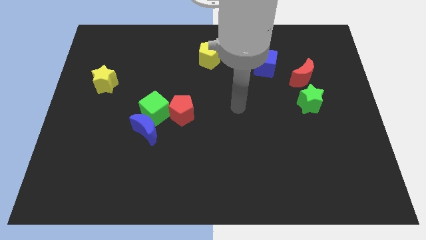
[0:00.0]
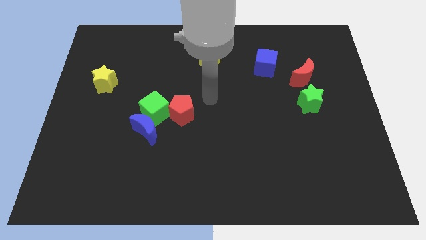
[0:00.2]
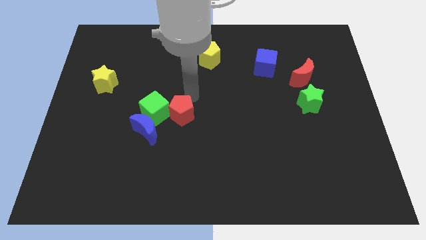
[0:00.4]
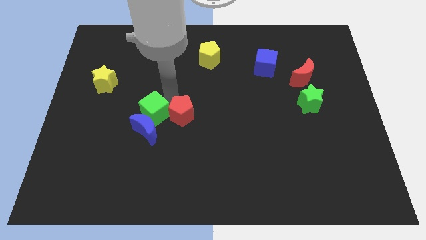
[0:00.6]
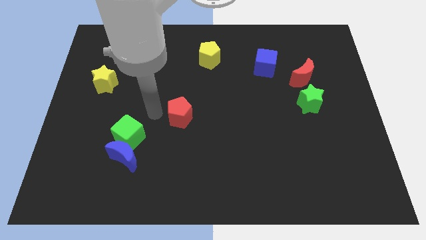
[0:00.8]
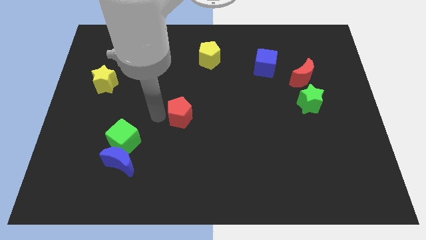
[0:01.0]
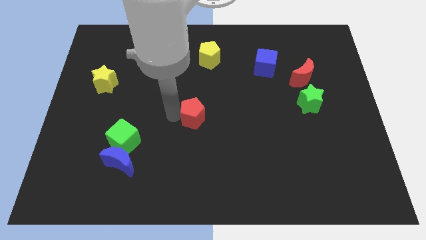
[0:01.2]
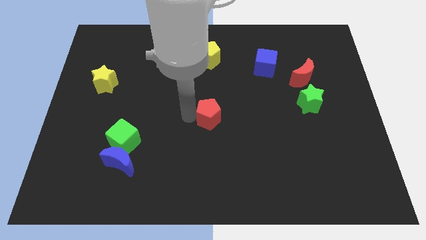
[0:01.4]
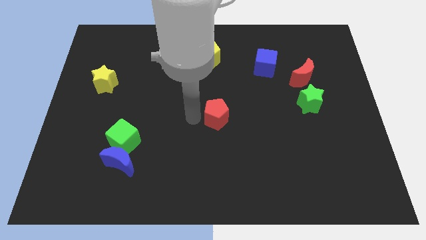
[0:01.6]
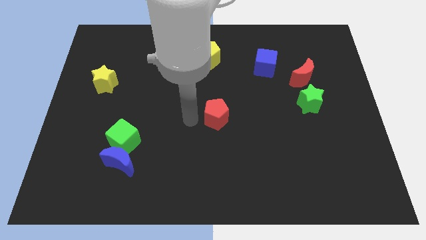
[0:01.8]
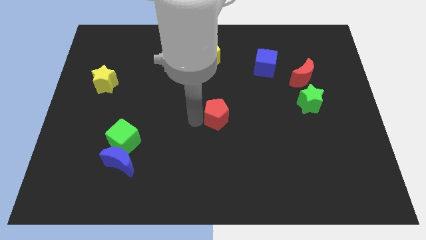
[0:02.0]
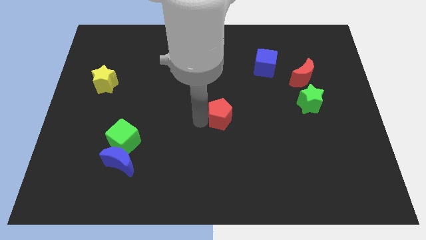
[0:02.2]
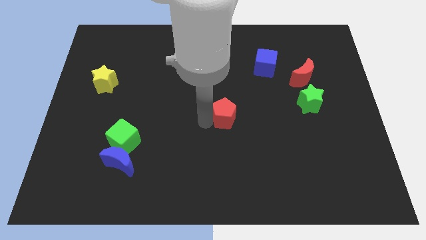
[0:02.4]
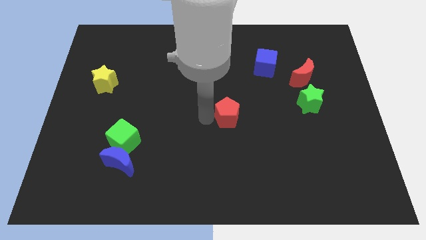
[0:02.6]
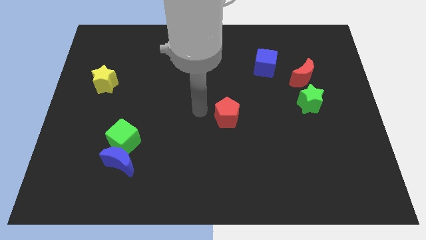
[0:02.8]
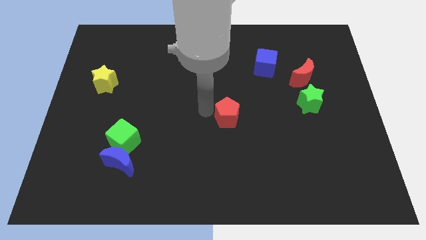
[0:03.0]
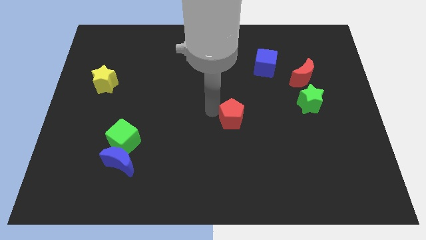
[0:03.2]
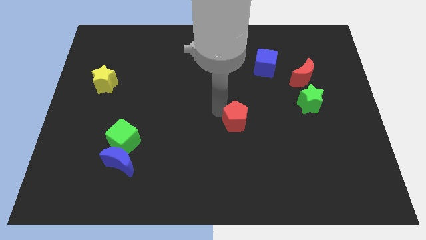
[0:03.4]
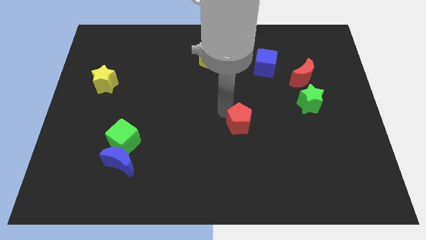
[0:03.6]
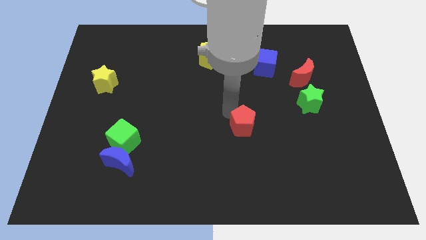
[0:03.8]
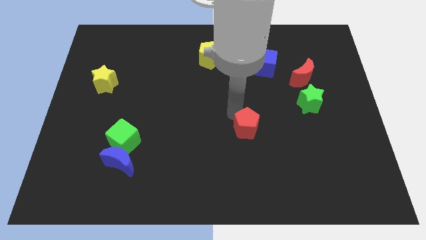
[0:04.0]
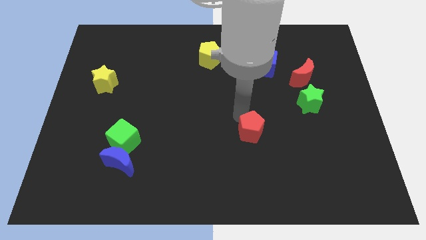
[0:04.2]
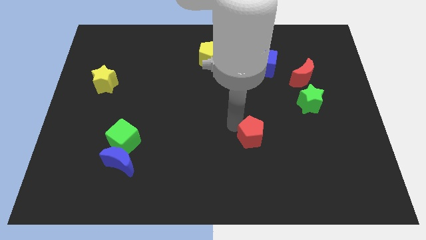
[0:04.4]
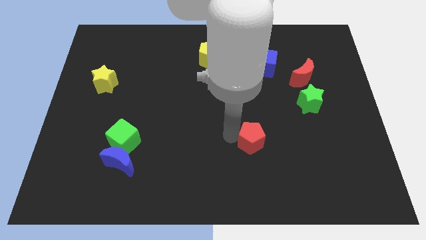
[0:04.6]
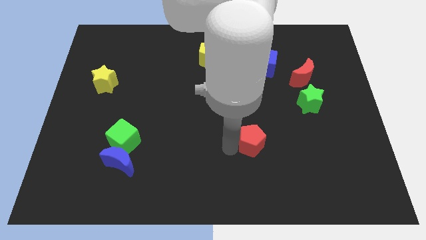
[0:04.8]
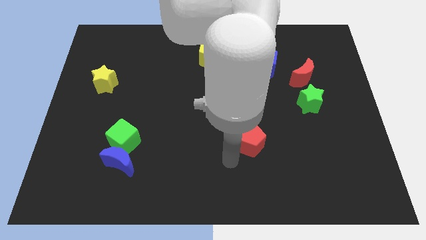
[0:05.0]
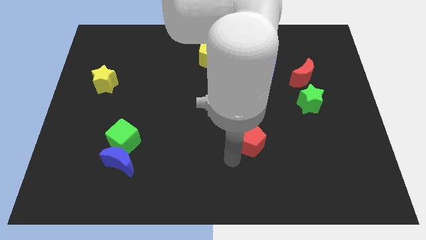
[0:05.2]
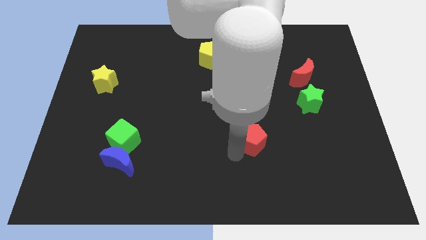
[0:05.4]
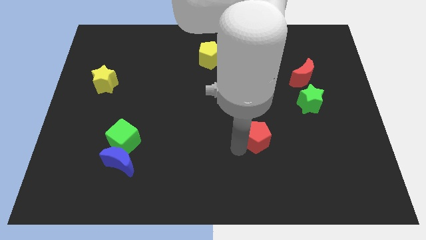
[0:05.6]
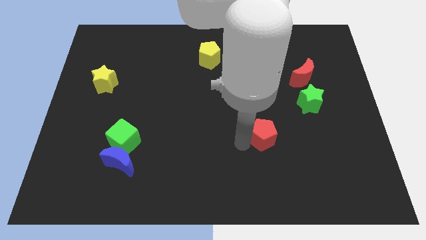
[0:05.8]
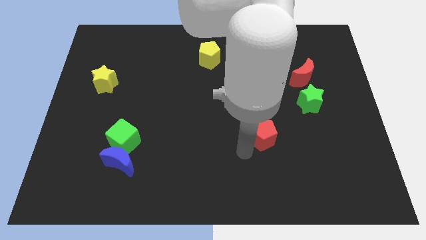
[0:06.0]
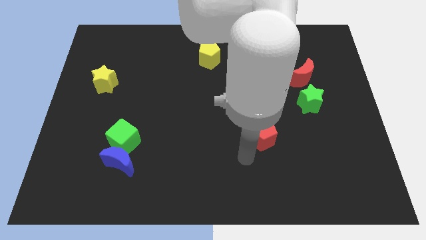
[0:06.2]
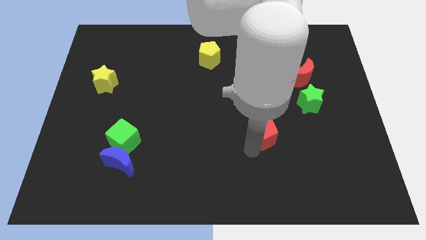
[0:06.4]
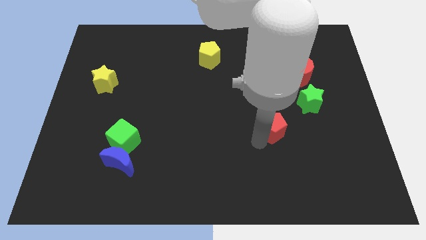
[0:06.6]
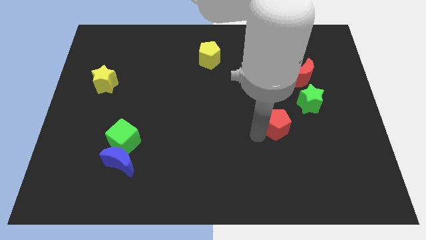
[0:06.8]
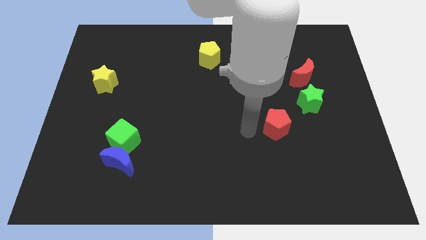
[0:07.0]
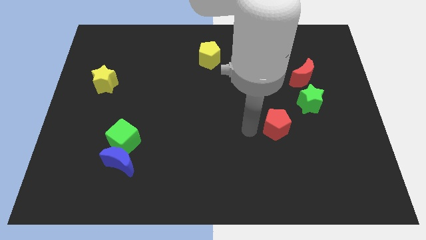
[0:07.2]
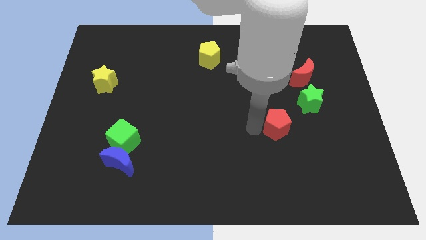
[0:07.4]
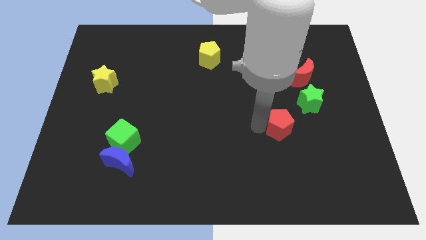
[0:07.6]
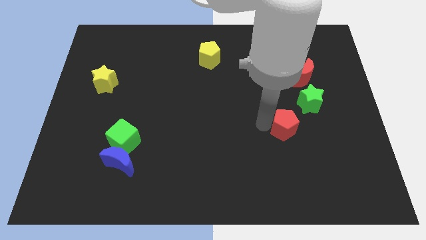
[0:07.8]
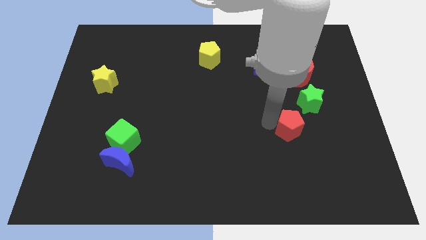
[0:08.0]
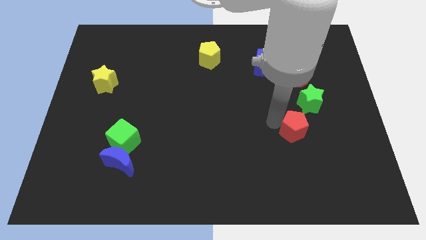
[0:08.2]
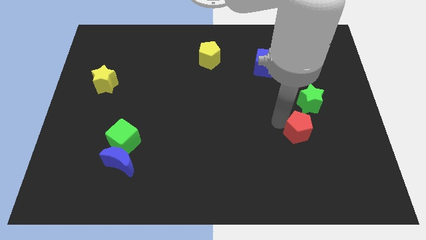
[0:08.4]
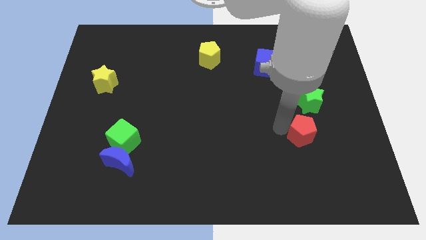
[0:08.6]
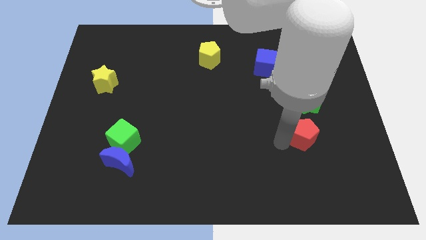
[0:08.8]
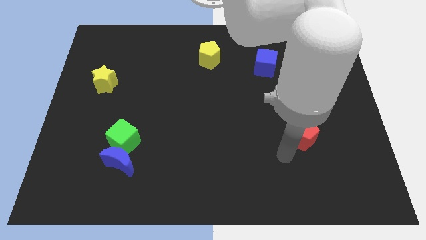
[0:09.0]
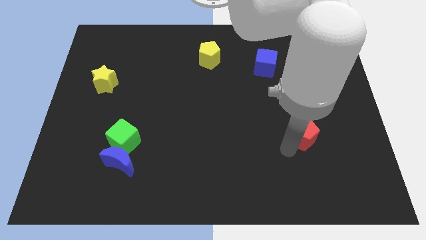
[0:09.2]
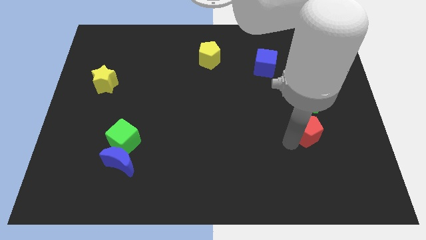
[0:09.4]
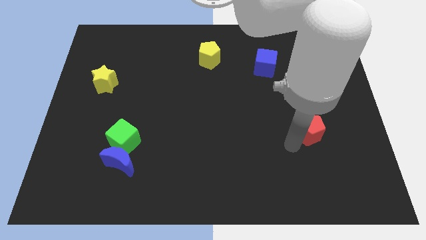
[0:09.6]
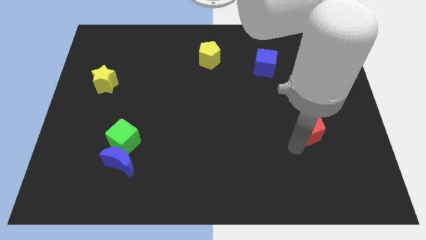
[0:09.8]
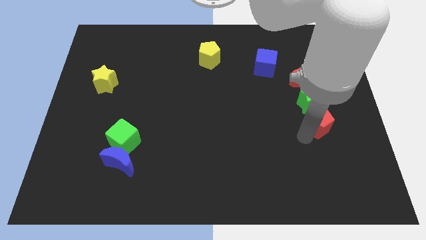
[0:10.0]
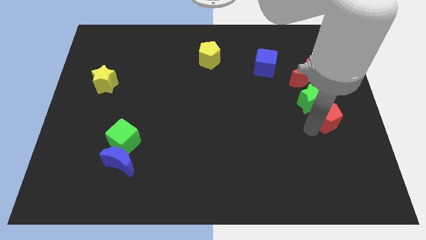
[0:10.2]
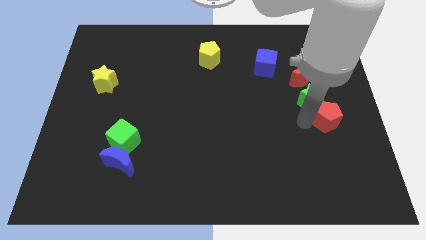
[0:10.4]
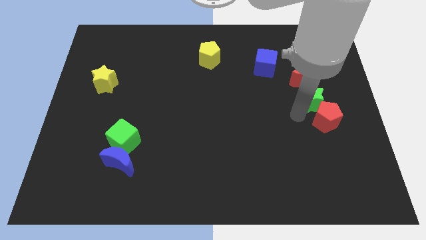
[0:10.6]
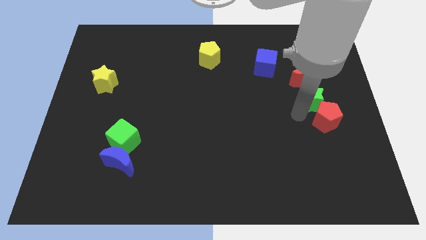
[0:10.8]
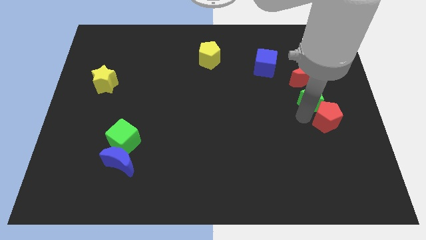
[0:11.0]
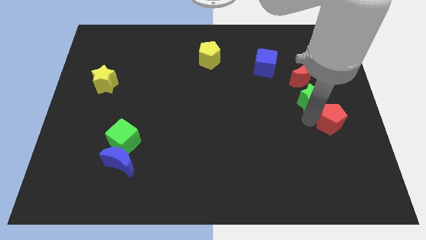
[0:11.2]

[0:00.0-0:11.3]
put the red pentagon to the center right
